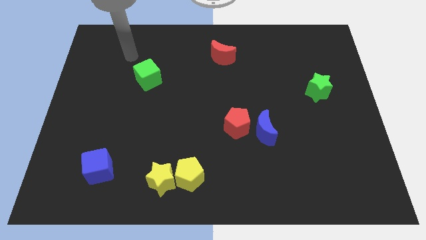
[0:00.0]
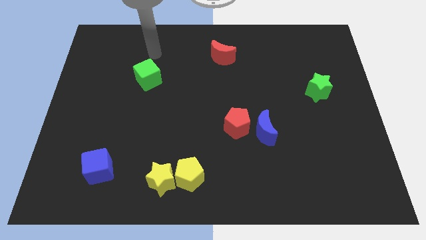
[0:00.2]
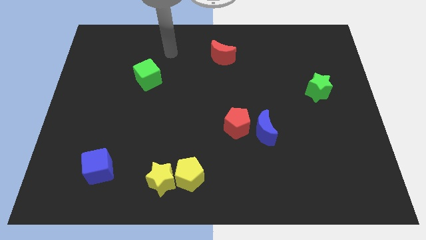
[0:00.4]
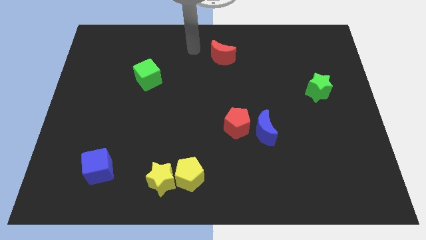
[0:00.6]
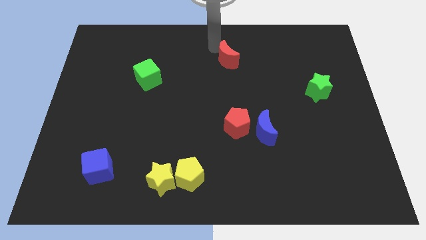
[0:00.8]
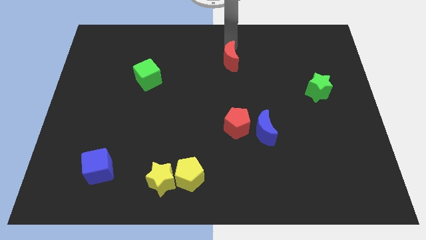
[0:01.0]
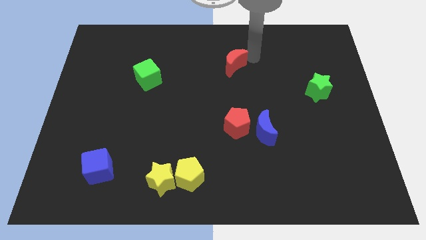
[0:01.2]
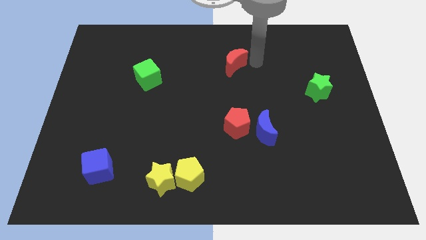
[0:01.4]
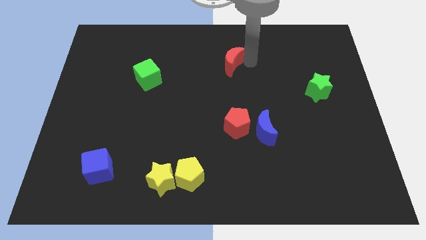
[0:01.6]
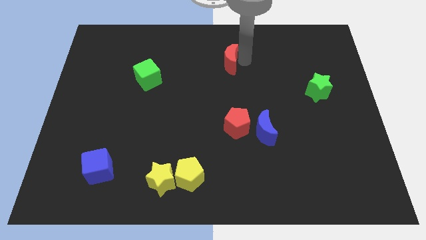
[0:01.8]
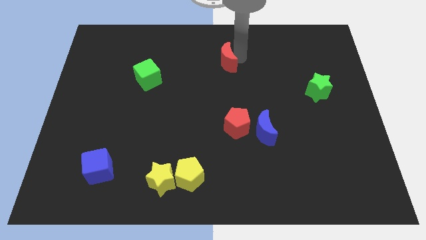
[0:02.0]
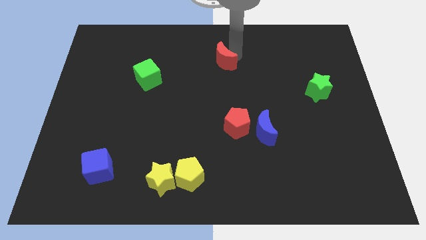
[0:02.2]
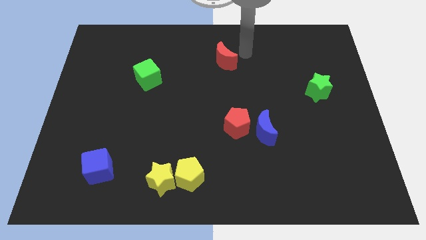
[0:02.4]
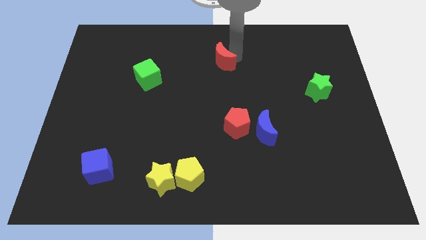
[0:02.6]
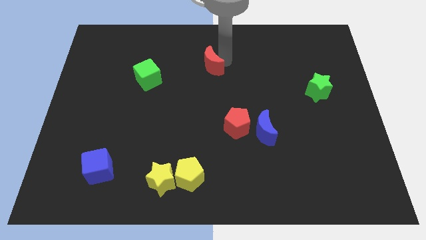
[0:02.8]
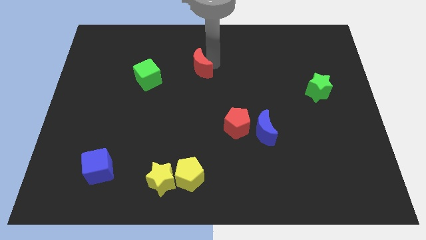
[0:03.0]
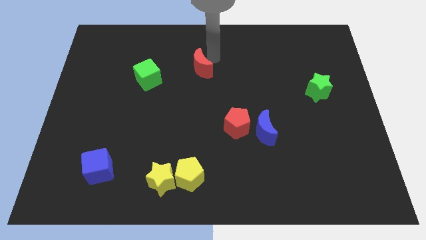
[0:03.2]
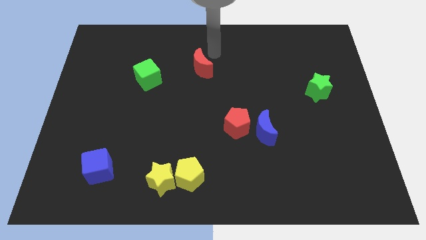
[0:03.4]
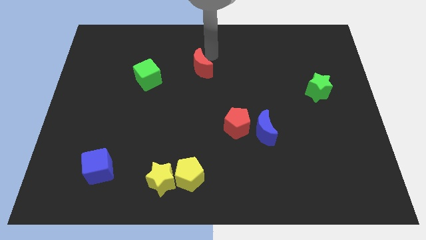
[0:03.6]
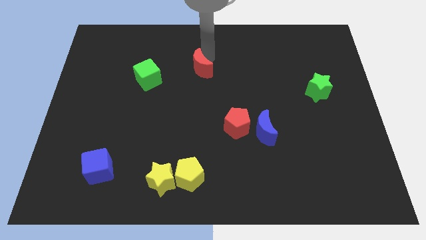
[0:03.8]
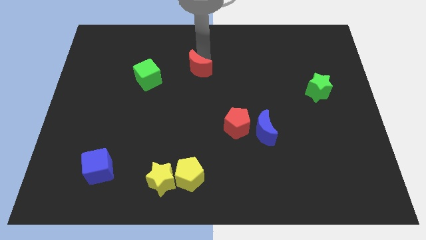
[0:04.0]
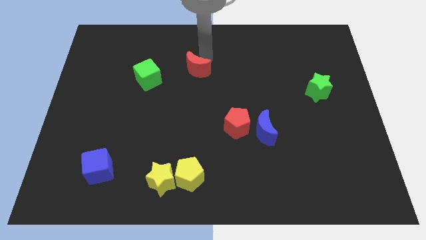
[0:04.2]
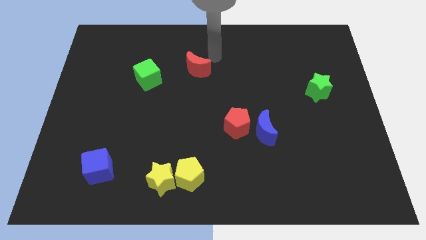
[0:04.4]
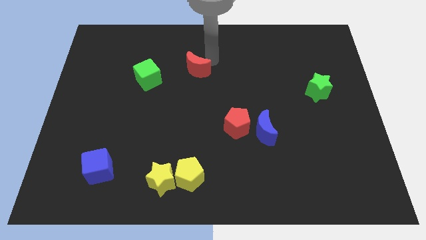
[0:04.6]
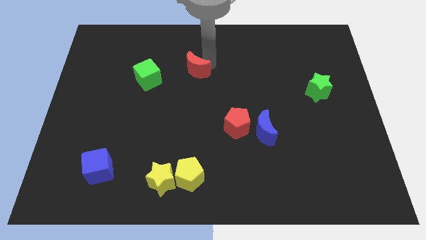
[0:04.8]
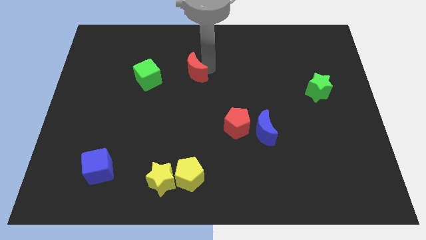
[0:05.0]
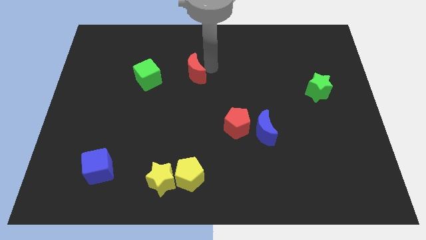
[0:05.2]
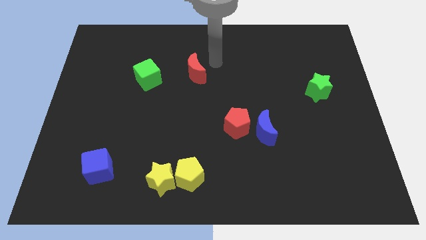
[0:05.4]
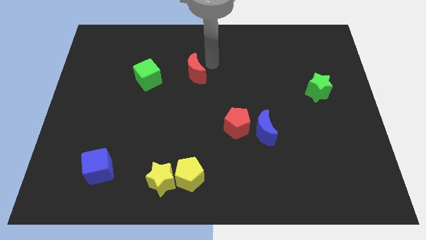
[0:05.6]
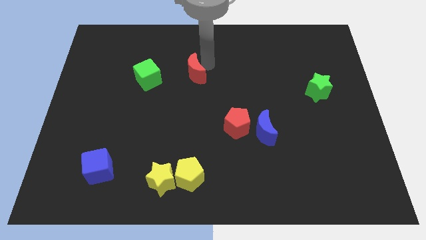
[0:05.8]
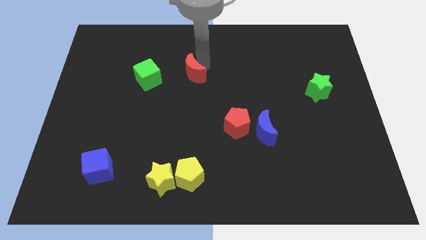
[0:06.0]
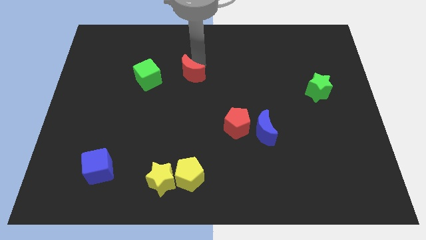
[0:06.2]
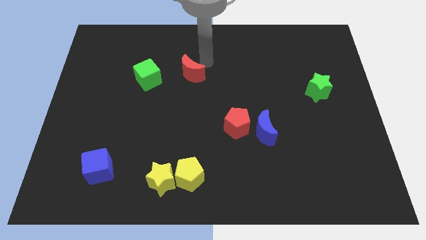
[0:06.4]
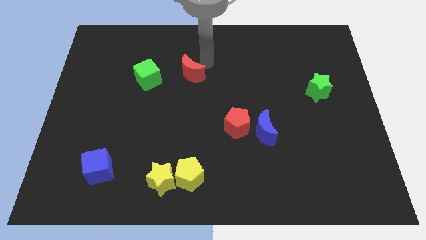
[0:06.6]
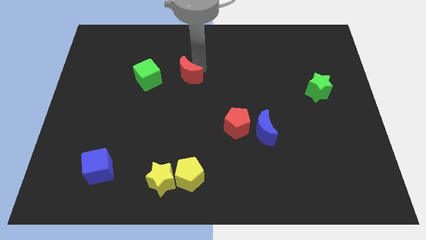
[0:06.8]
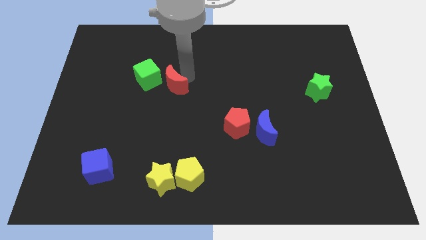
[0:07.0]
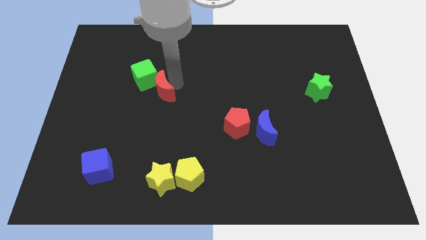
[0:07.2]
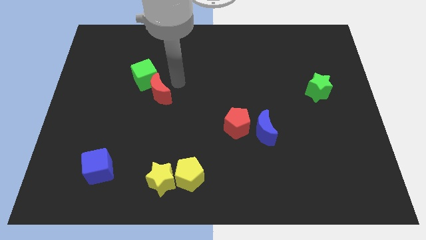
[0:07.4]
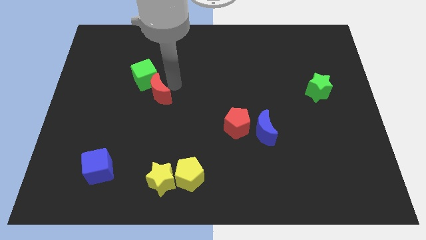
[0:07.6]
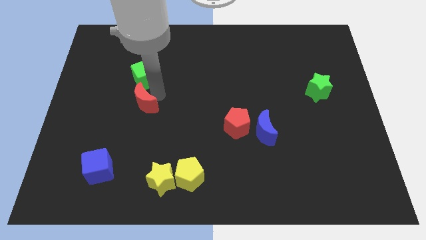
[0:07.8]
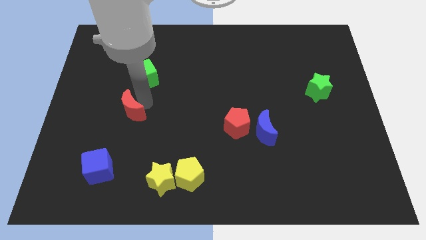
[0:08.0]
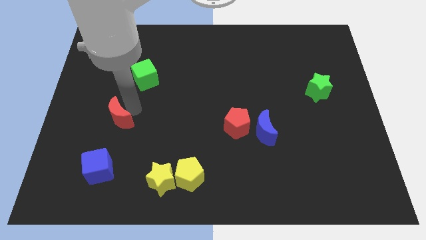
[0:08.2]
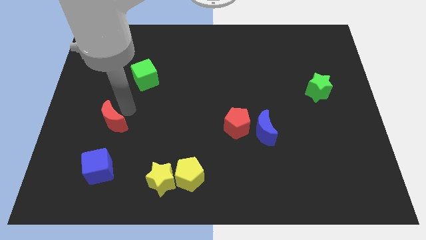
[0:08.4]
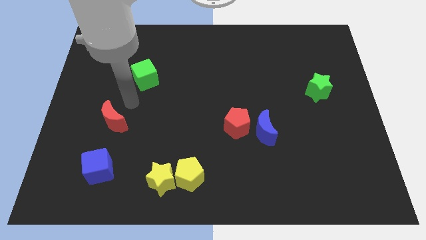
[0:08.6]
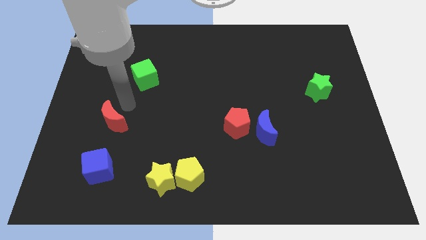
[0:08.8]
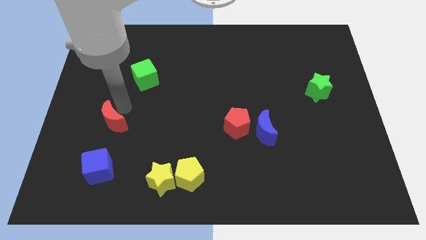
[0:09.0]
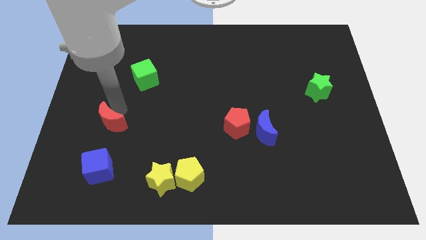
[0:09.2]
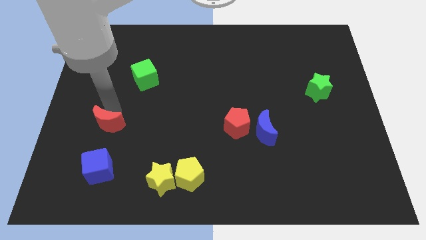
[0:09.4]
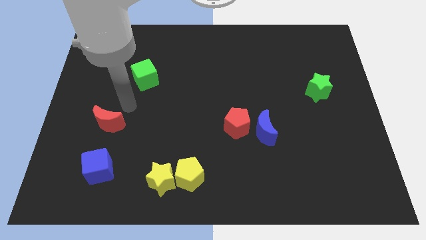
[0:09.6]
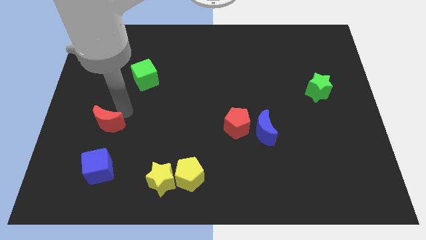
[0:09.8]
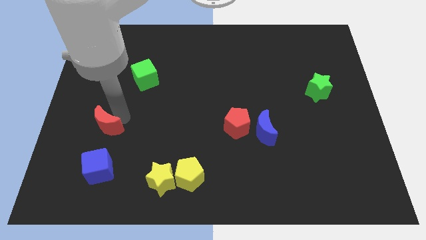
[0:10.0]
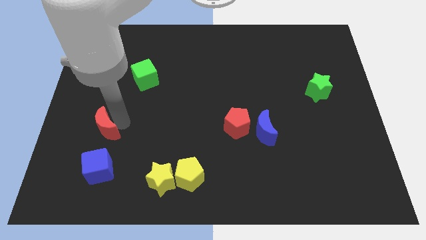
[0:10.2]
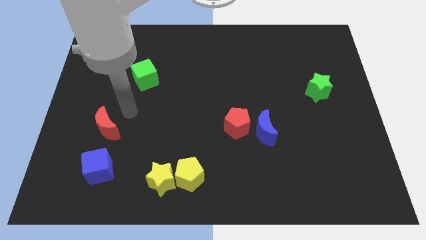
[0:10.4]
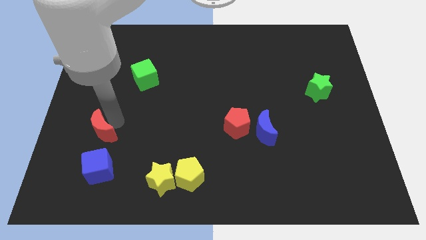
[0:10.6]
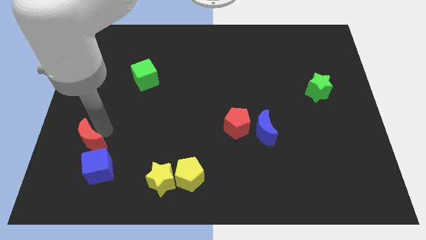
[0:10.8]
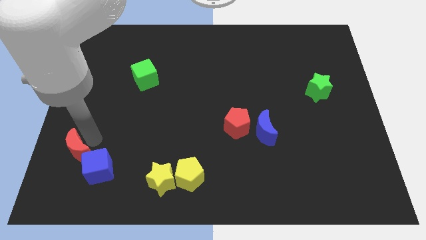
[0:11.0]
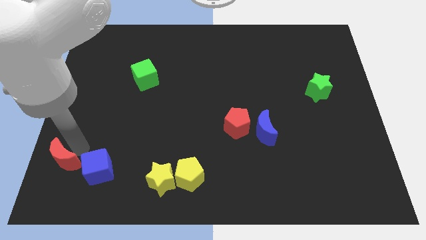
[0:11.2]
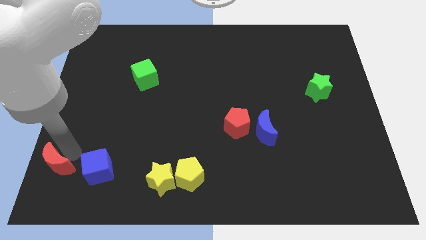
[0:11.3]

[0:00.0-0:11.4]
slide the red moon to the lower left corner
